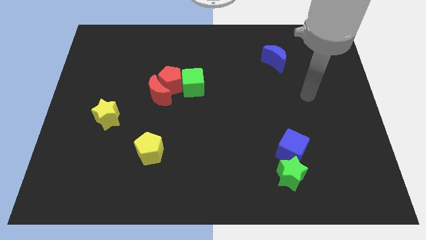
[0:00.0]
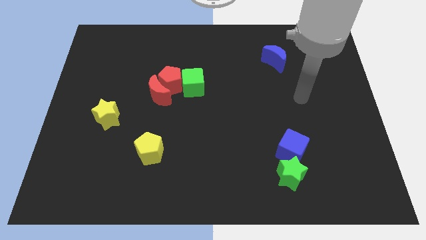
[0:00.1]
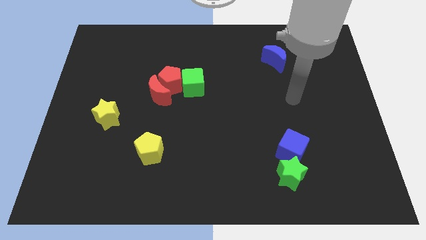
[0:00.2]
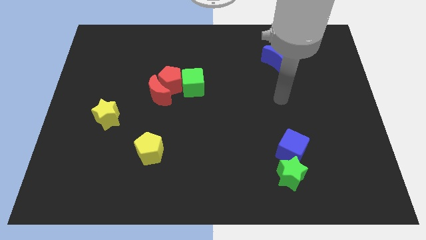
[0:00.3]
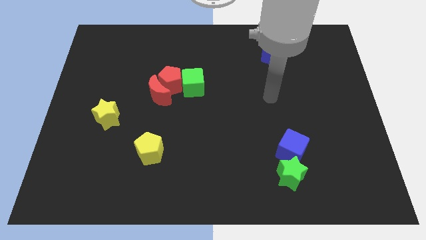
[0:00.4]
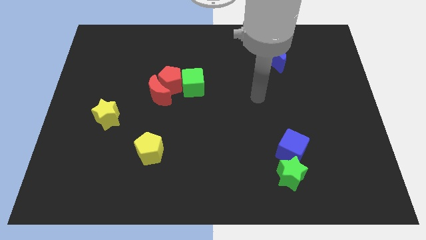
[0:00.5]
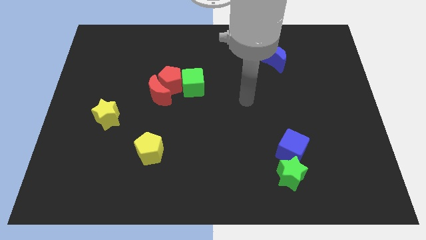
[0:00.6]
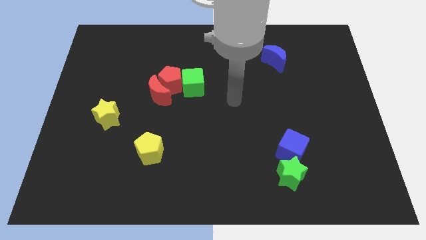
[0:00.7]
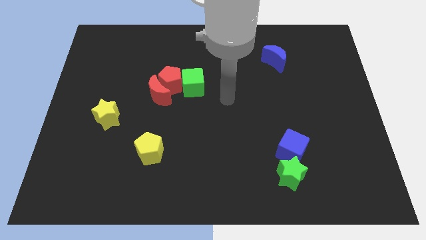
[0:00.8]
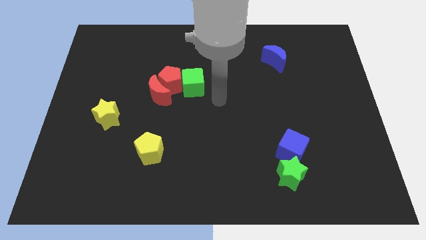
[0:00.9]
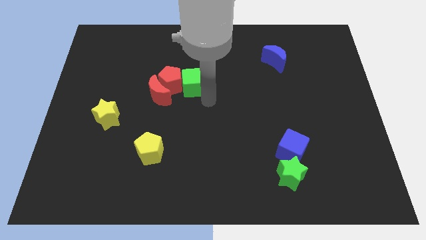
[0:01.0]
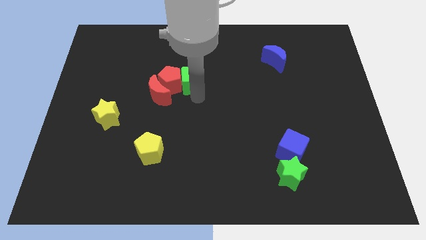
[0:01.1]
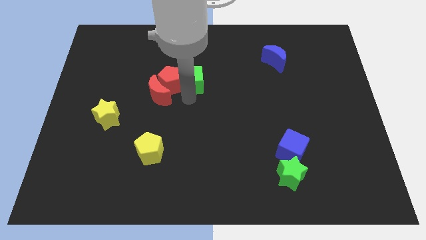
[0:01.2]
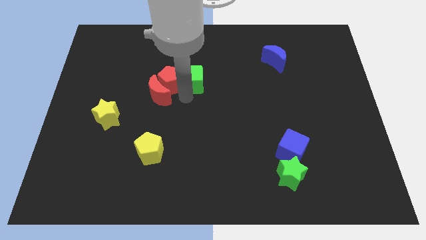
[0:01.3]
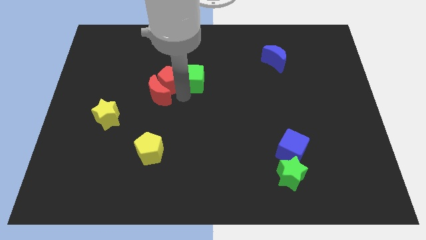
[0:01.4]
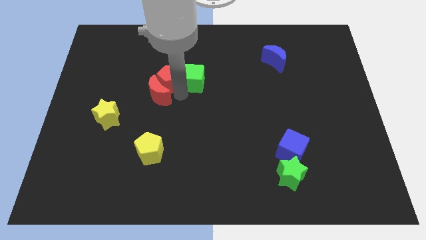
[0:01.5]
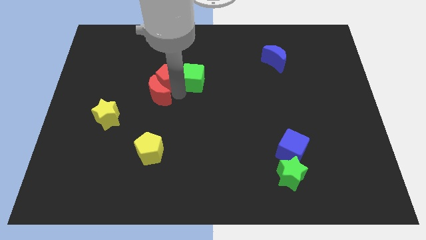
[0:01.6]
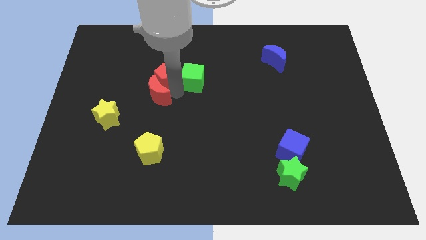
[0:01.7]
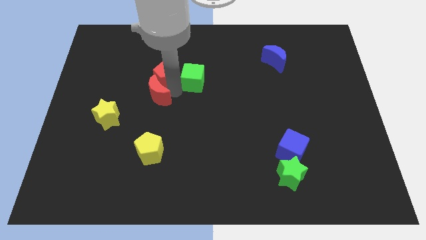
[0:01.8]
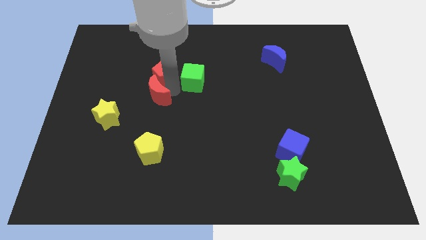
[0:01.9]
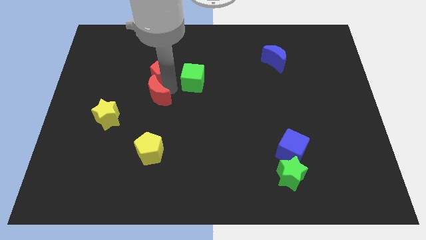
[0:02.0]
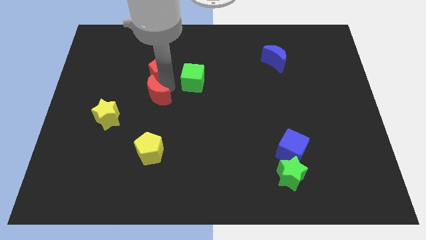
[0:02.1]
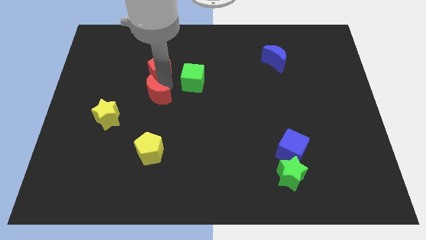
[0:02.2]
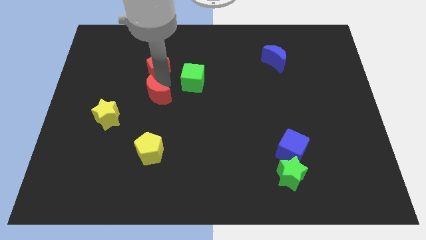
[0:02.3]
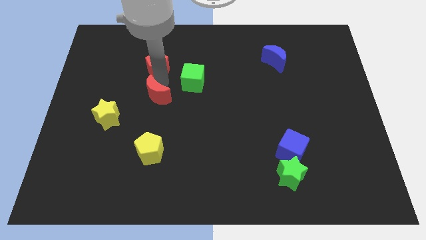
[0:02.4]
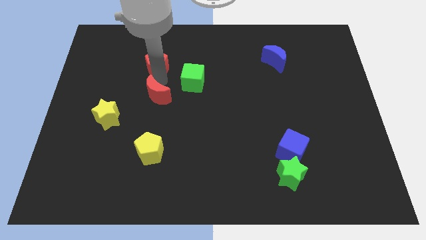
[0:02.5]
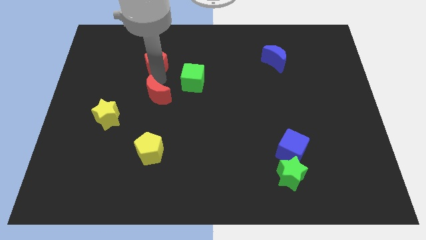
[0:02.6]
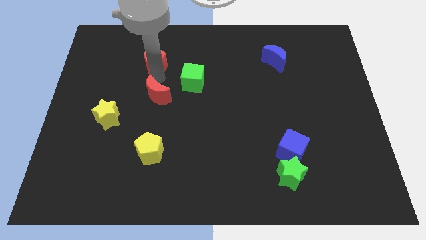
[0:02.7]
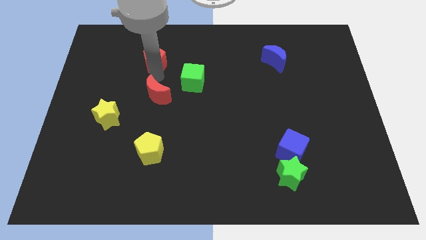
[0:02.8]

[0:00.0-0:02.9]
pull the red pentagon apart from the red moon and green cube

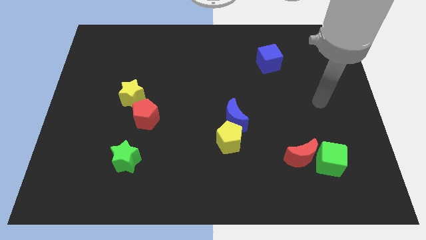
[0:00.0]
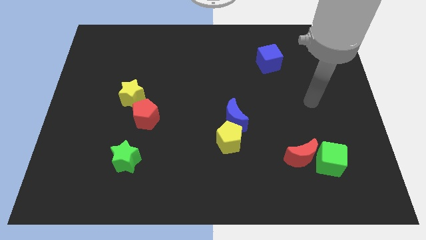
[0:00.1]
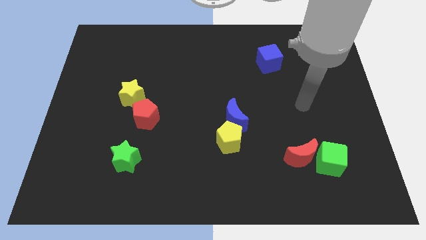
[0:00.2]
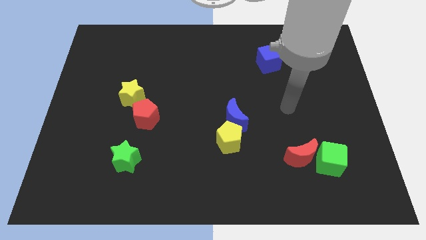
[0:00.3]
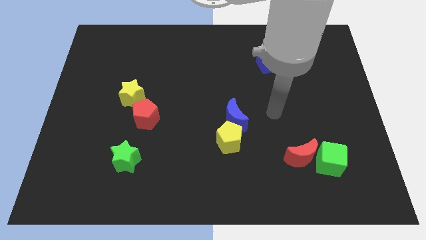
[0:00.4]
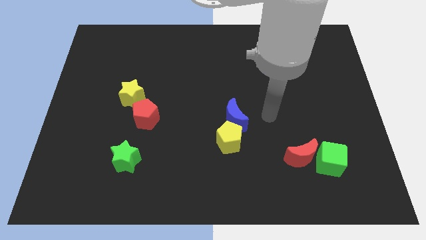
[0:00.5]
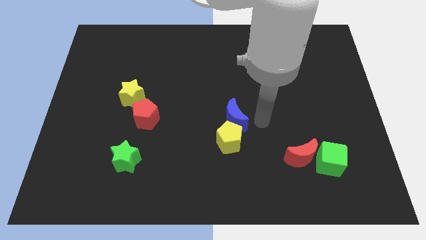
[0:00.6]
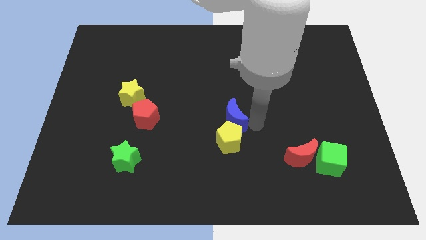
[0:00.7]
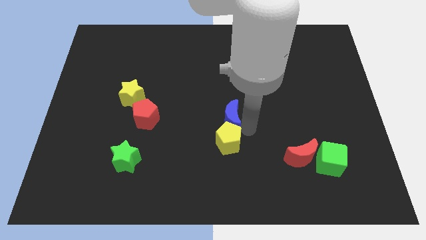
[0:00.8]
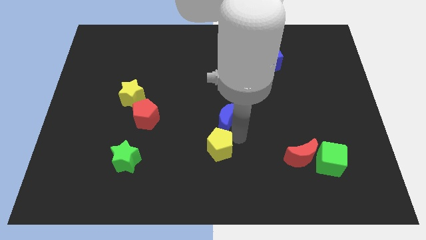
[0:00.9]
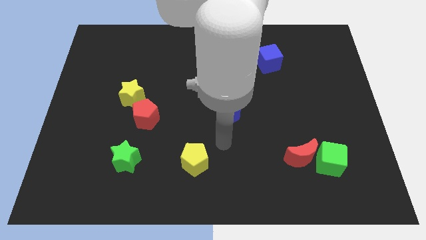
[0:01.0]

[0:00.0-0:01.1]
pull the blue moon apart from the yellow pentagon

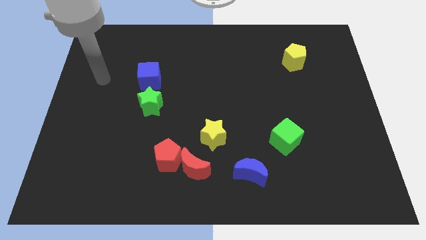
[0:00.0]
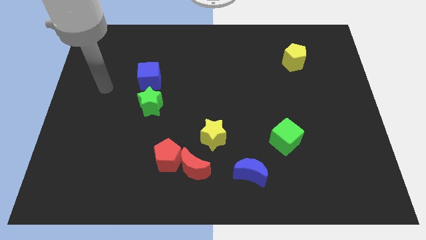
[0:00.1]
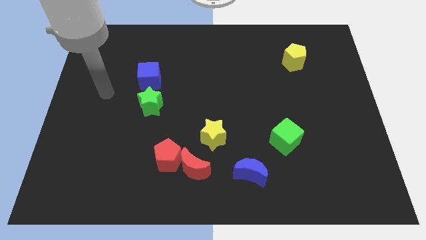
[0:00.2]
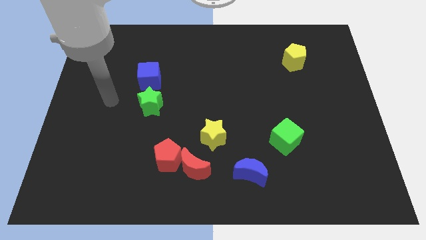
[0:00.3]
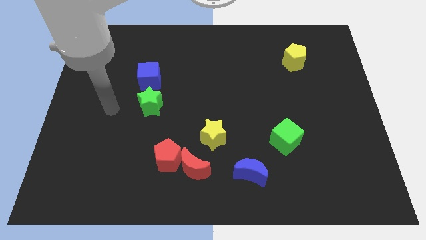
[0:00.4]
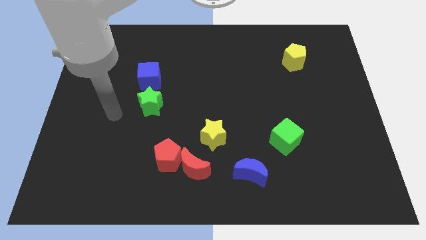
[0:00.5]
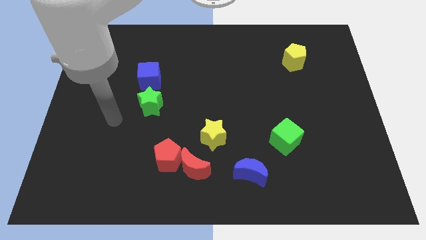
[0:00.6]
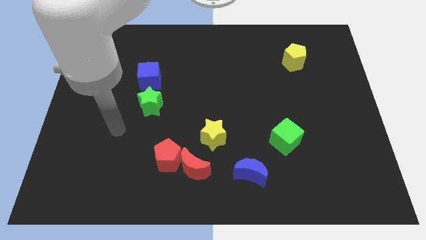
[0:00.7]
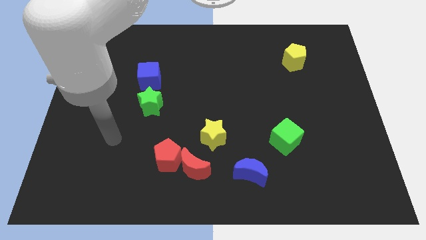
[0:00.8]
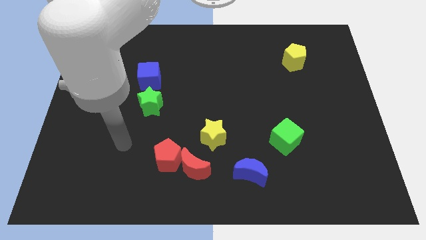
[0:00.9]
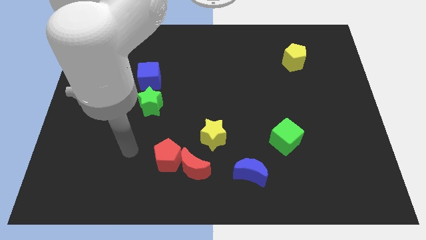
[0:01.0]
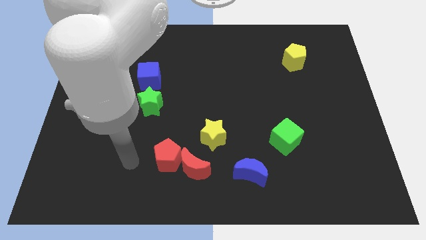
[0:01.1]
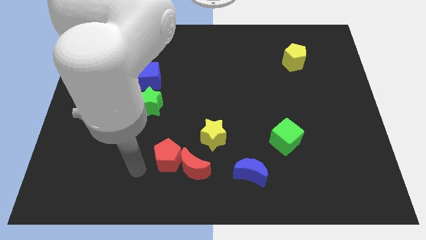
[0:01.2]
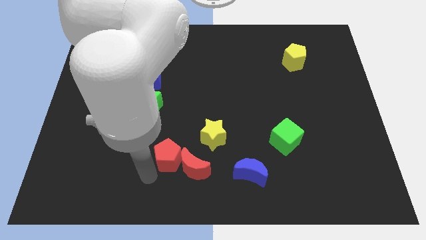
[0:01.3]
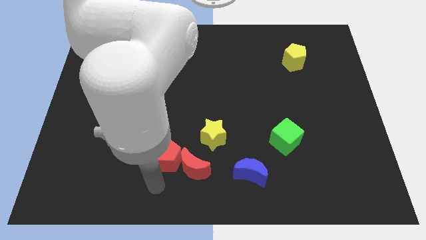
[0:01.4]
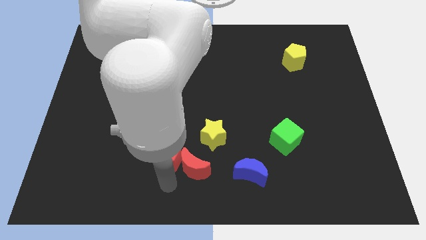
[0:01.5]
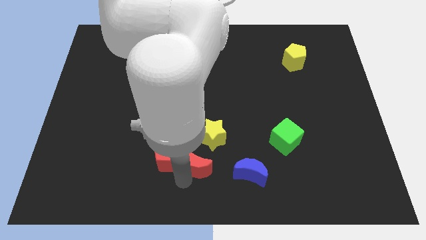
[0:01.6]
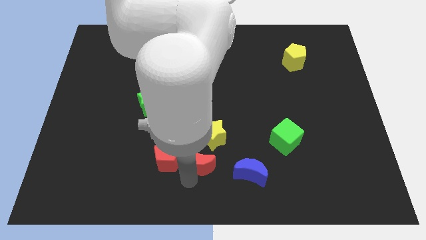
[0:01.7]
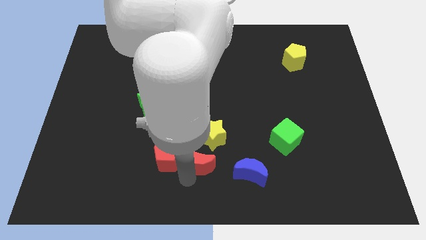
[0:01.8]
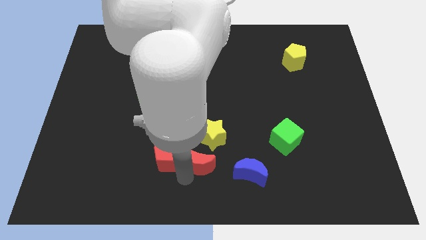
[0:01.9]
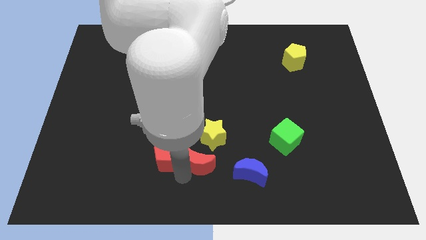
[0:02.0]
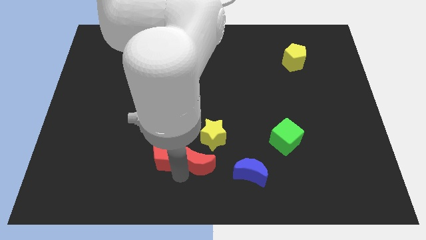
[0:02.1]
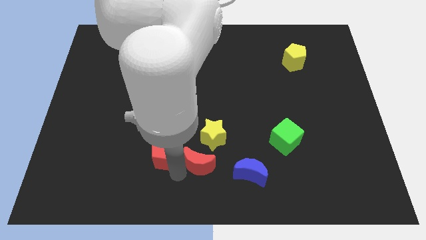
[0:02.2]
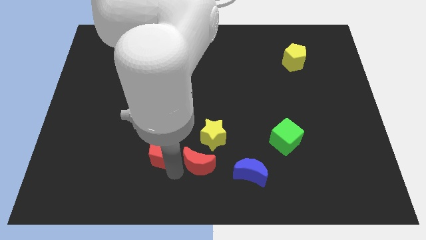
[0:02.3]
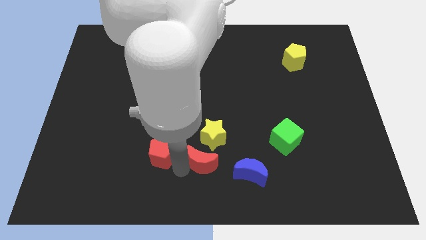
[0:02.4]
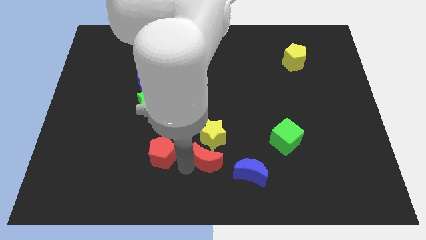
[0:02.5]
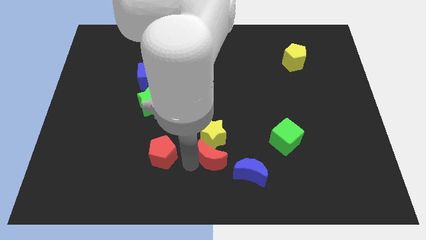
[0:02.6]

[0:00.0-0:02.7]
move the red pentagon away from the red moon

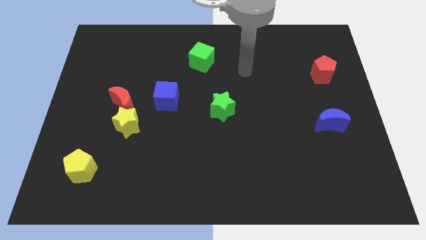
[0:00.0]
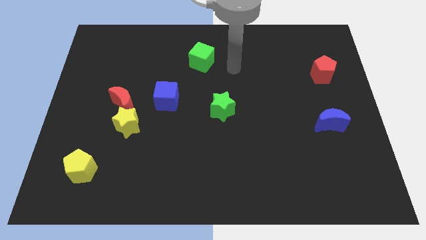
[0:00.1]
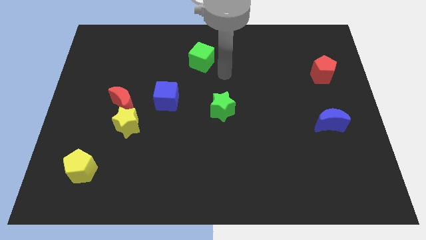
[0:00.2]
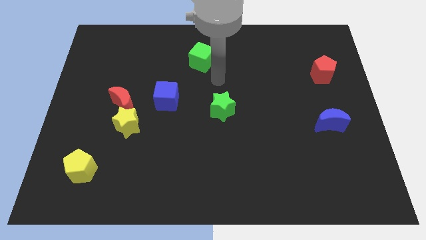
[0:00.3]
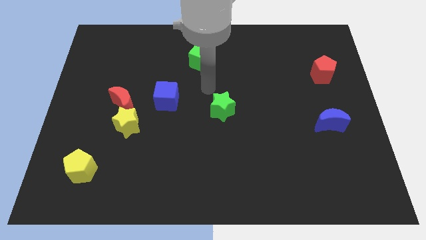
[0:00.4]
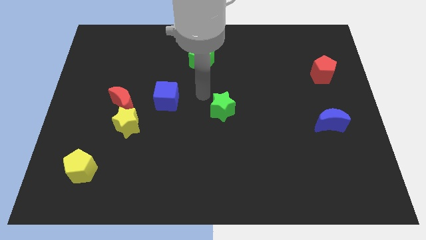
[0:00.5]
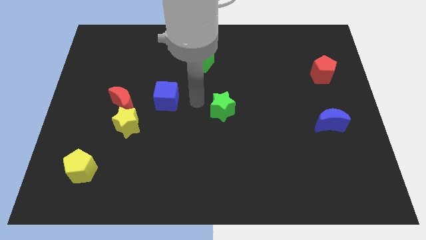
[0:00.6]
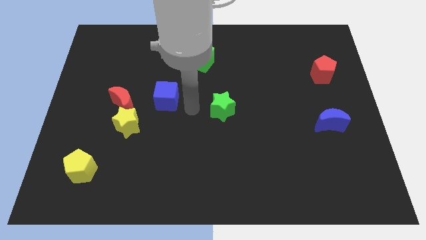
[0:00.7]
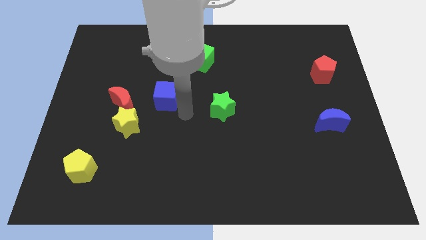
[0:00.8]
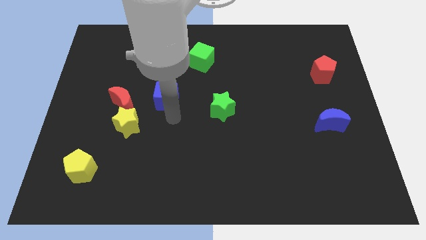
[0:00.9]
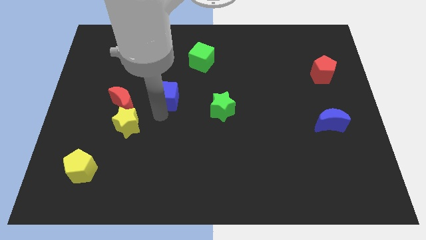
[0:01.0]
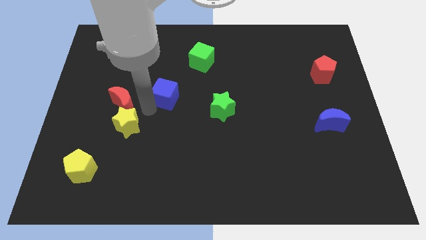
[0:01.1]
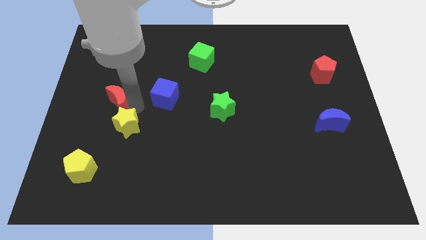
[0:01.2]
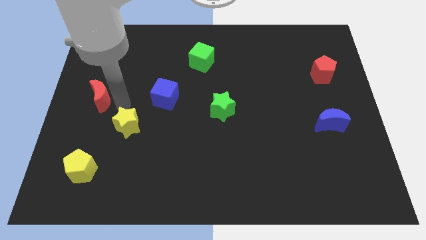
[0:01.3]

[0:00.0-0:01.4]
pull the yellow star apart from the red moon

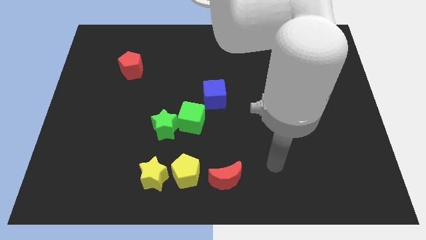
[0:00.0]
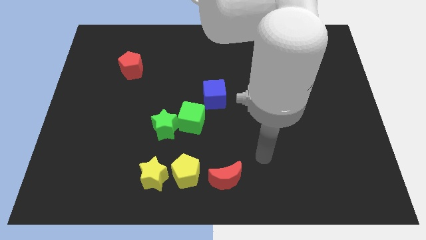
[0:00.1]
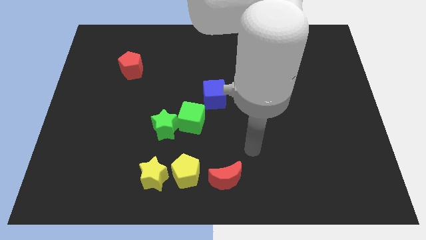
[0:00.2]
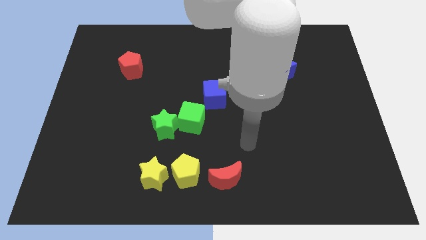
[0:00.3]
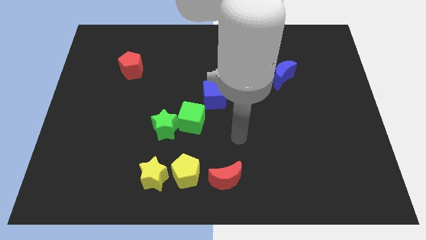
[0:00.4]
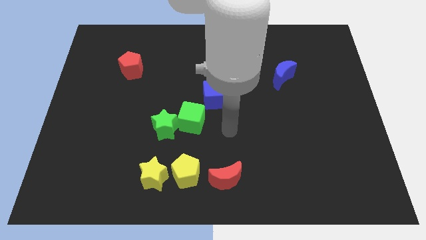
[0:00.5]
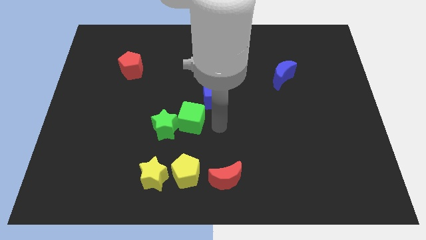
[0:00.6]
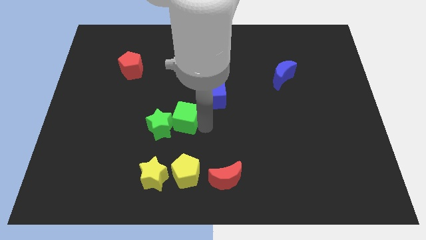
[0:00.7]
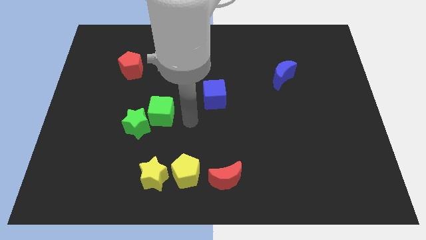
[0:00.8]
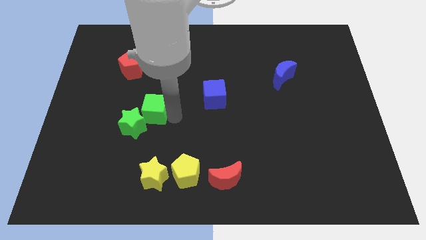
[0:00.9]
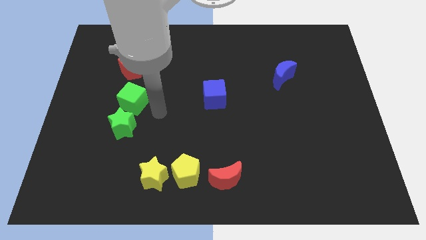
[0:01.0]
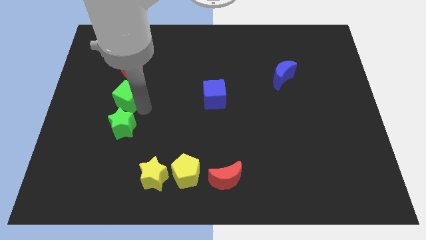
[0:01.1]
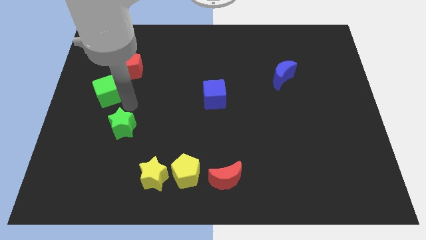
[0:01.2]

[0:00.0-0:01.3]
pull the green star apart from the green cube
